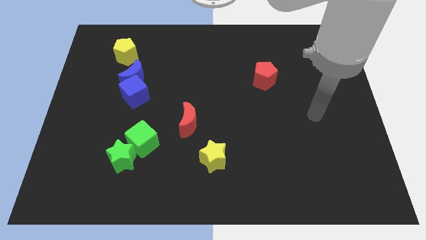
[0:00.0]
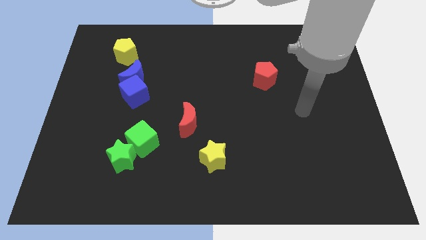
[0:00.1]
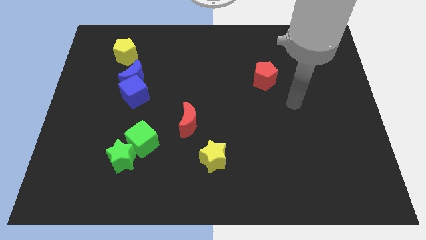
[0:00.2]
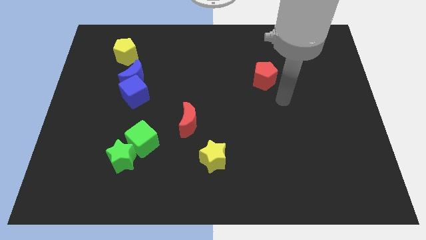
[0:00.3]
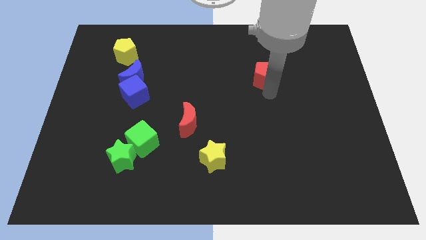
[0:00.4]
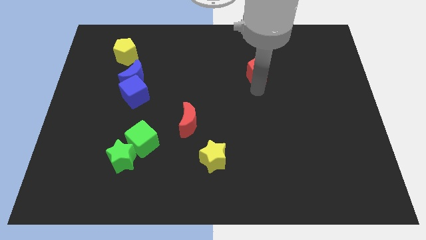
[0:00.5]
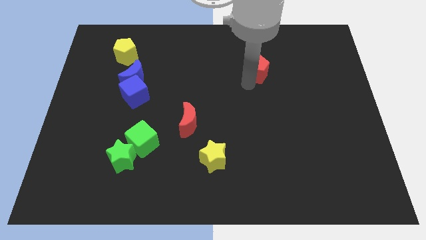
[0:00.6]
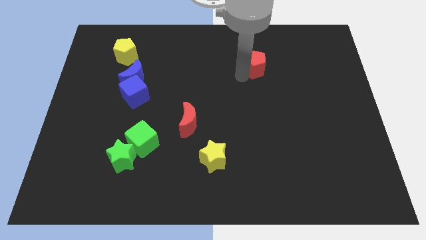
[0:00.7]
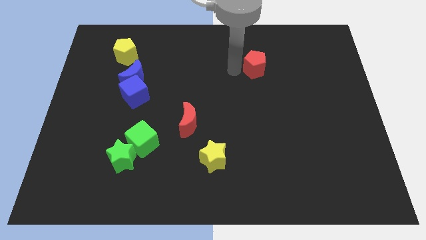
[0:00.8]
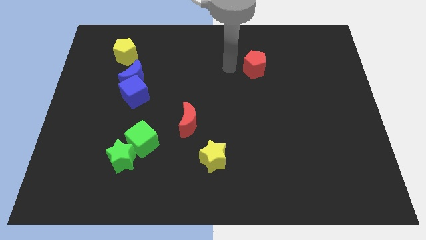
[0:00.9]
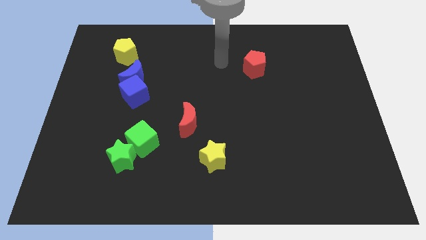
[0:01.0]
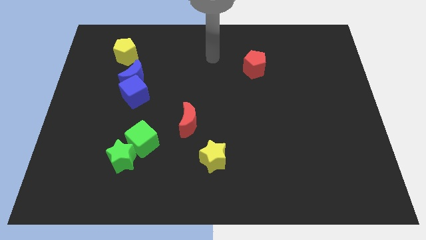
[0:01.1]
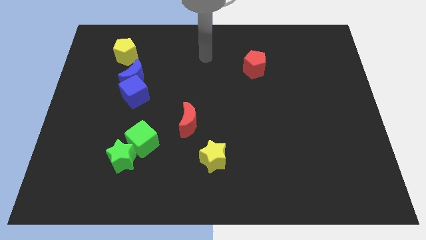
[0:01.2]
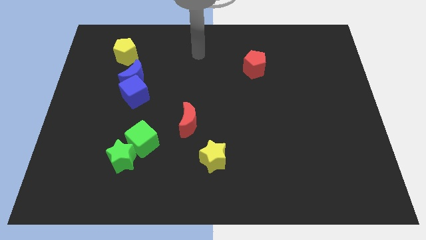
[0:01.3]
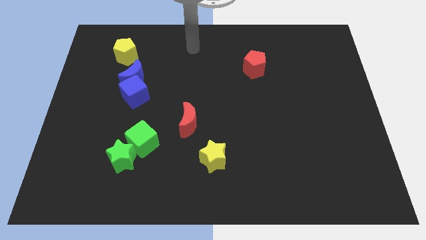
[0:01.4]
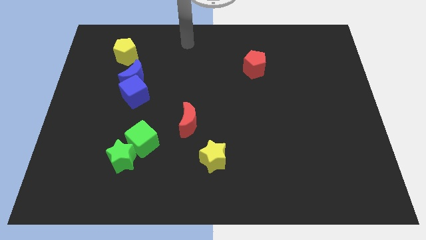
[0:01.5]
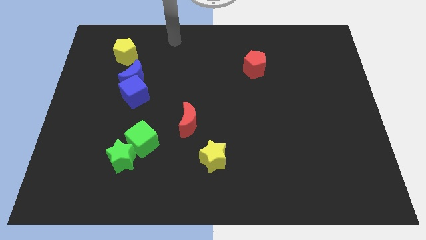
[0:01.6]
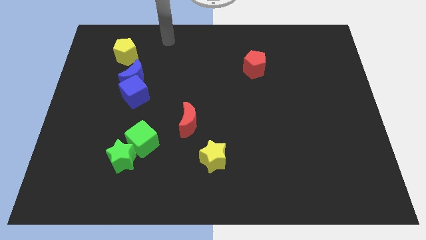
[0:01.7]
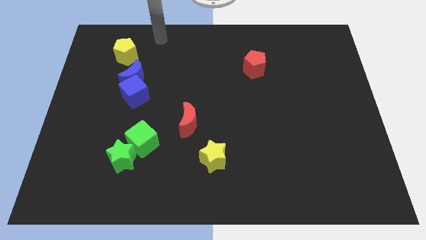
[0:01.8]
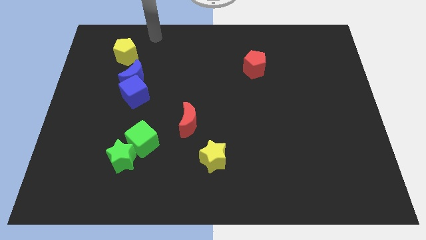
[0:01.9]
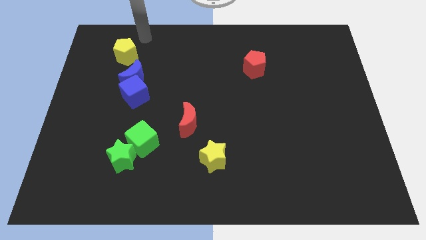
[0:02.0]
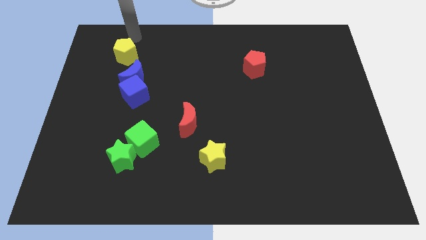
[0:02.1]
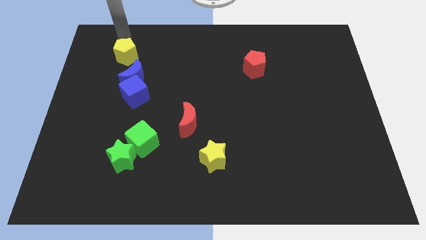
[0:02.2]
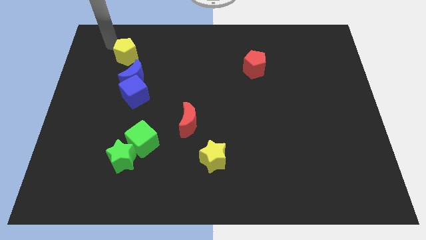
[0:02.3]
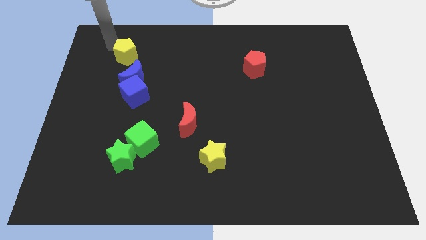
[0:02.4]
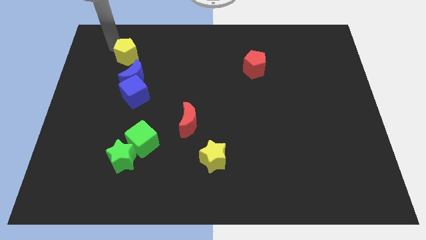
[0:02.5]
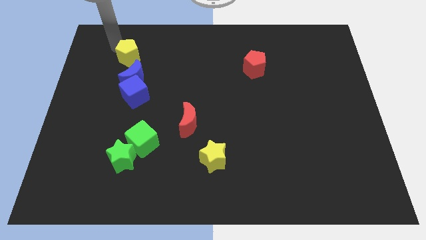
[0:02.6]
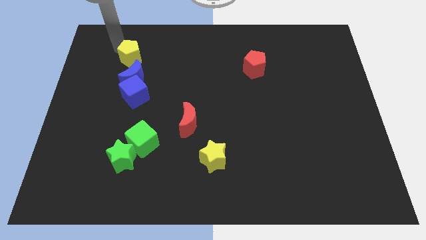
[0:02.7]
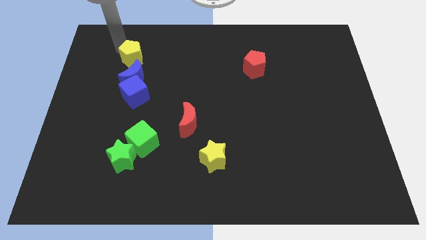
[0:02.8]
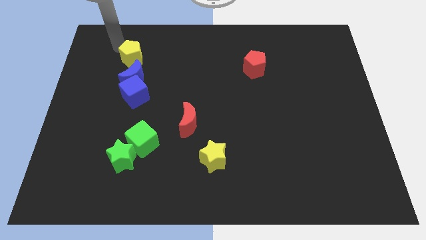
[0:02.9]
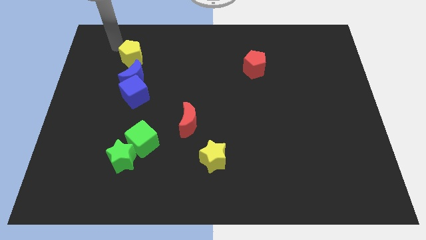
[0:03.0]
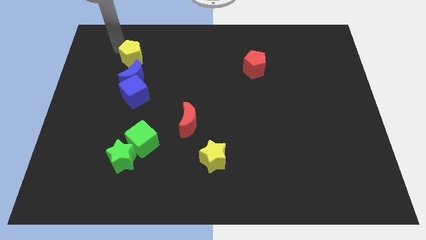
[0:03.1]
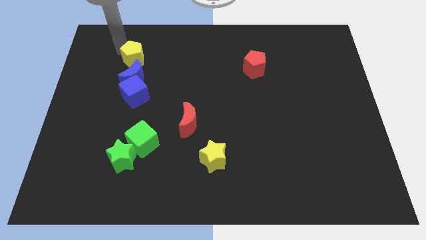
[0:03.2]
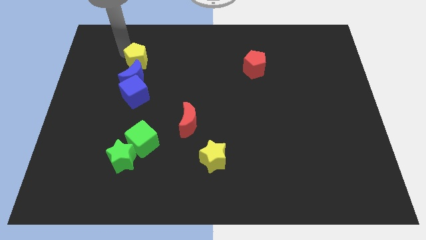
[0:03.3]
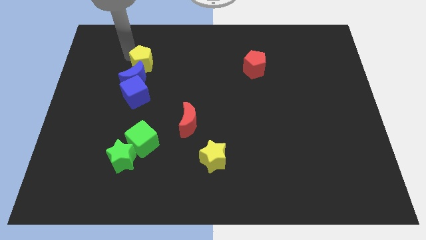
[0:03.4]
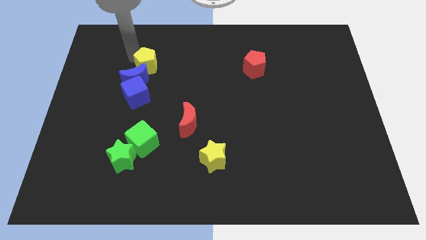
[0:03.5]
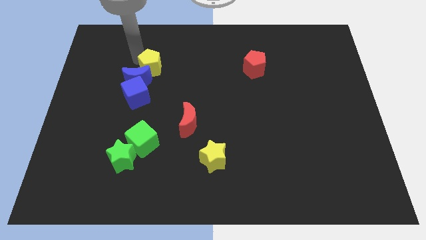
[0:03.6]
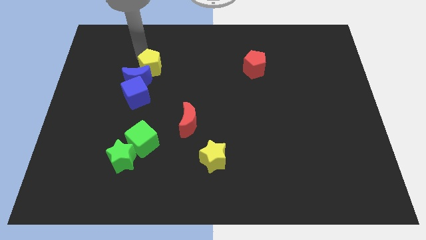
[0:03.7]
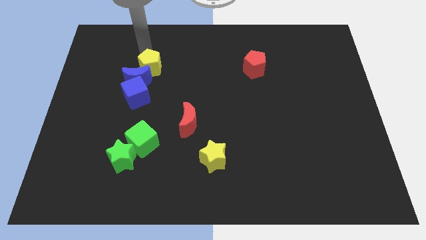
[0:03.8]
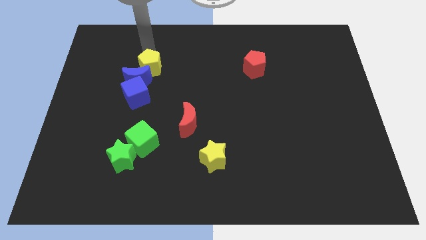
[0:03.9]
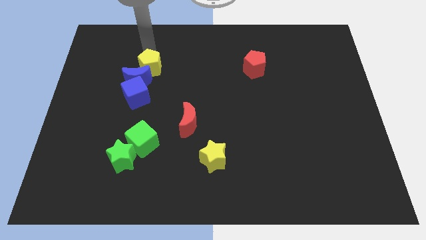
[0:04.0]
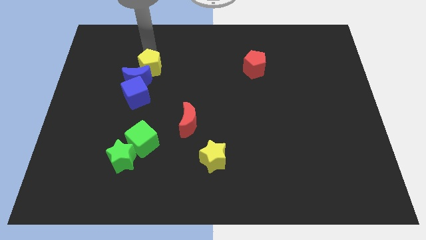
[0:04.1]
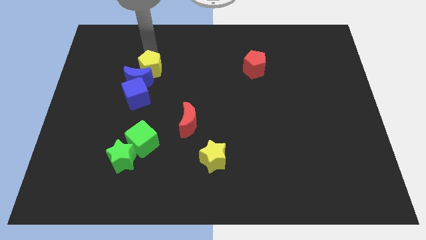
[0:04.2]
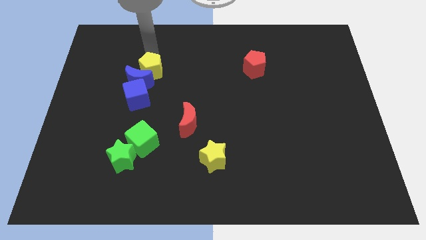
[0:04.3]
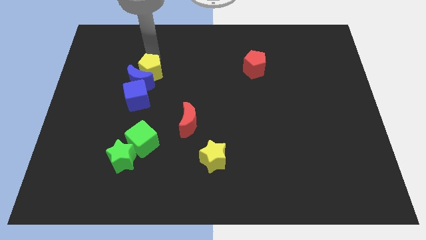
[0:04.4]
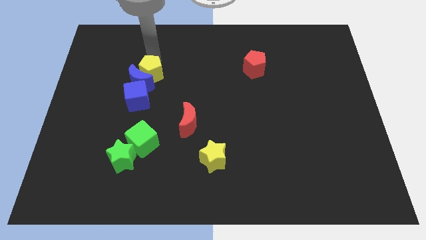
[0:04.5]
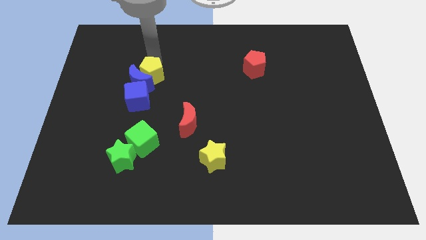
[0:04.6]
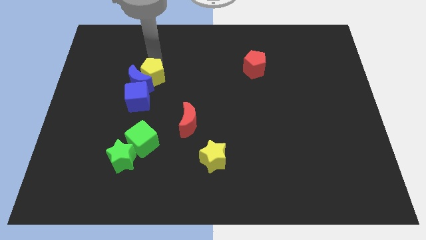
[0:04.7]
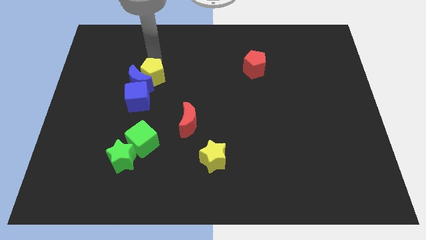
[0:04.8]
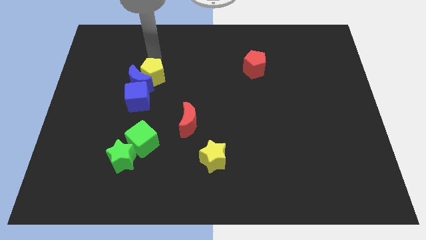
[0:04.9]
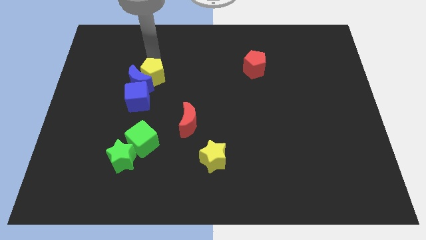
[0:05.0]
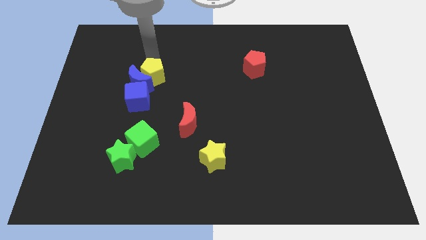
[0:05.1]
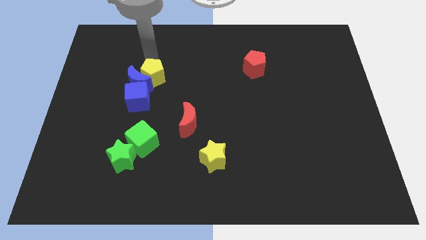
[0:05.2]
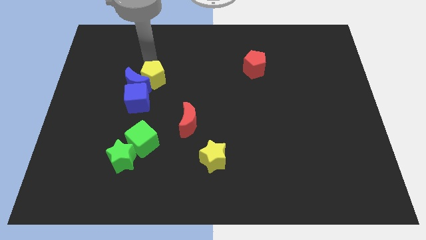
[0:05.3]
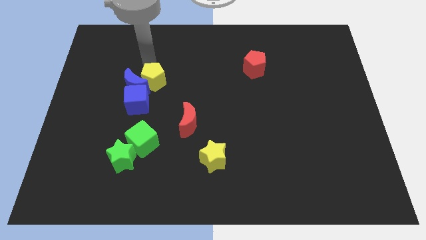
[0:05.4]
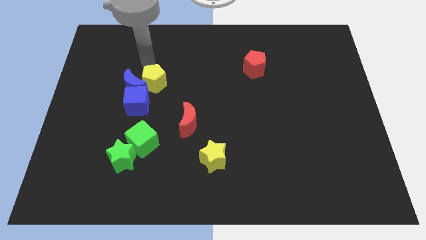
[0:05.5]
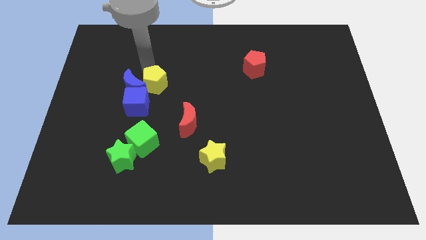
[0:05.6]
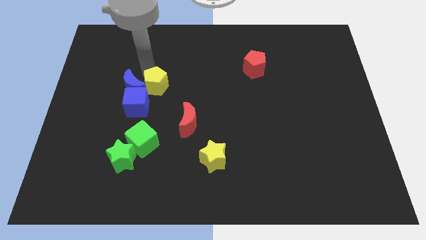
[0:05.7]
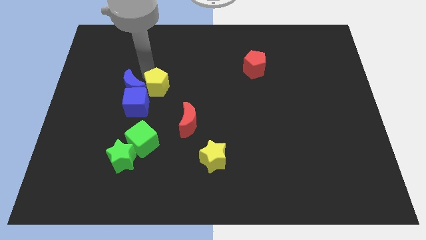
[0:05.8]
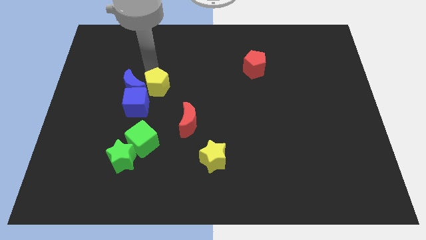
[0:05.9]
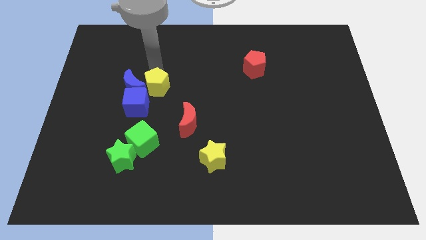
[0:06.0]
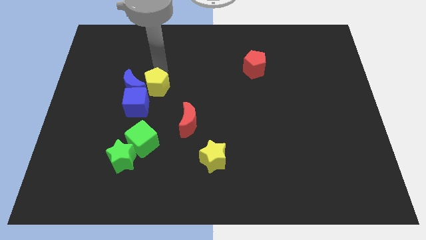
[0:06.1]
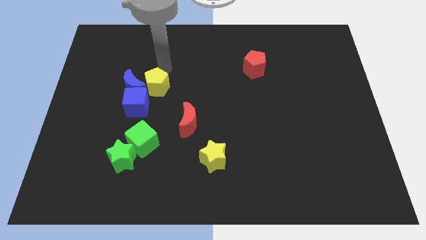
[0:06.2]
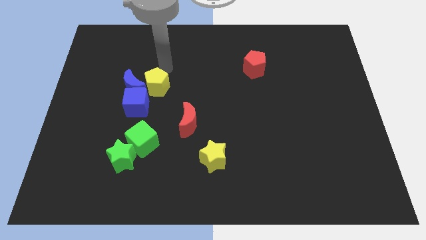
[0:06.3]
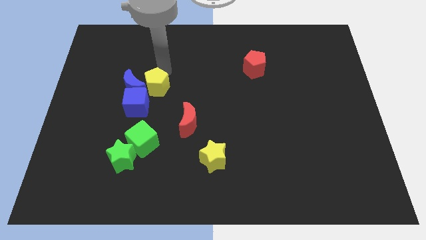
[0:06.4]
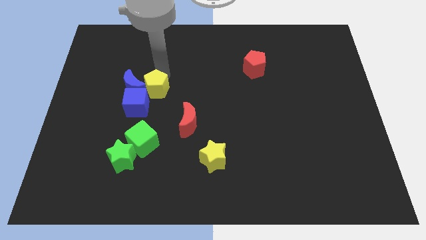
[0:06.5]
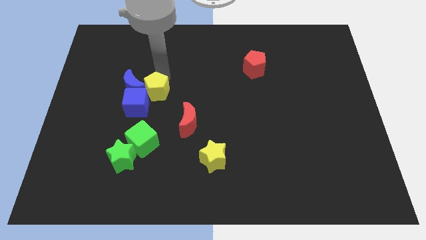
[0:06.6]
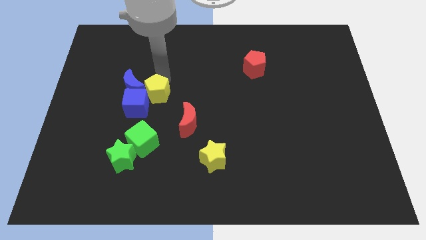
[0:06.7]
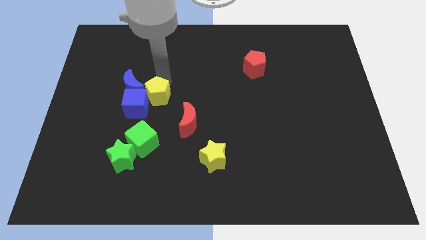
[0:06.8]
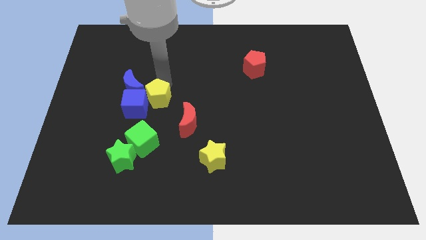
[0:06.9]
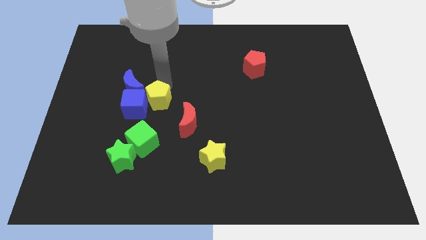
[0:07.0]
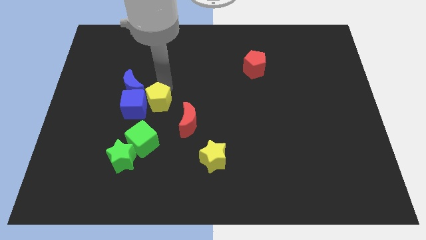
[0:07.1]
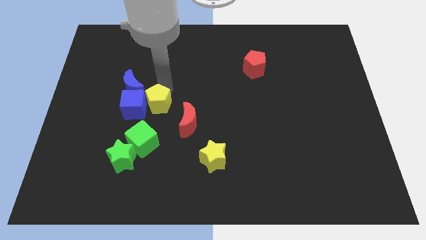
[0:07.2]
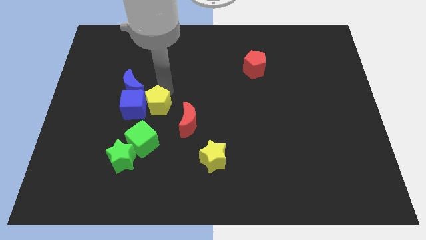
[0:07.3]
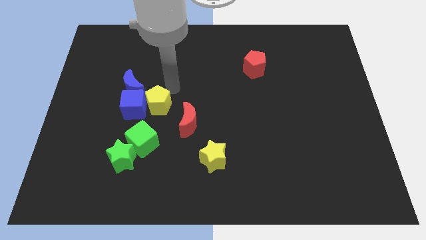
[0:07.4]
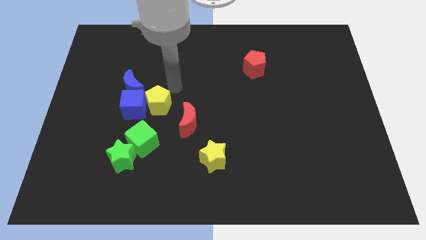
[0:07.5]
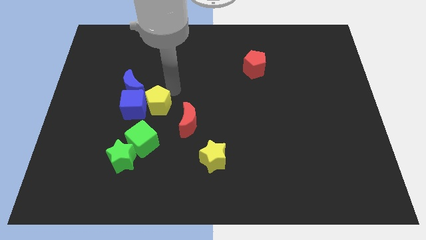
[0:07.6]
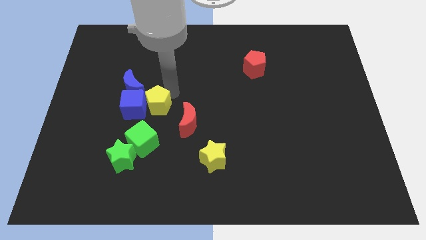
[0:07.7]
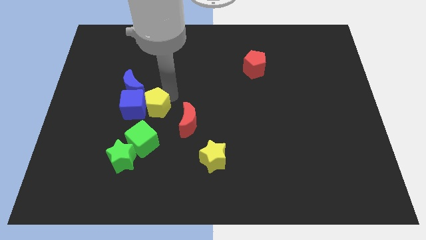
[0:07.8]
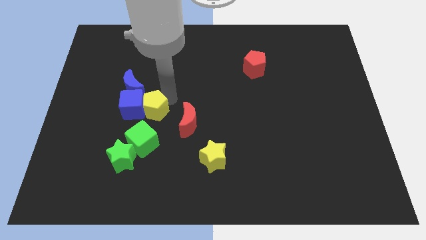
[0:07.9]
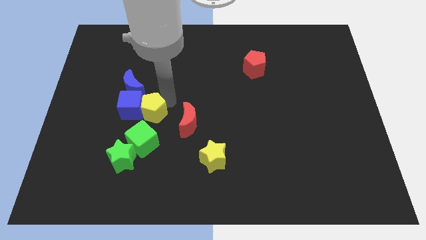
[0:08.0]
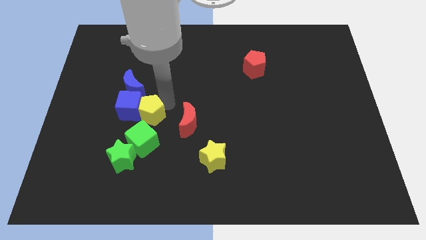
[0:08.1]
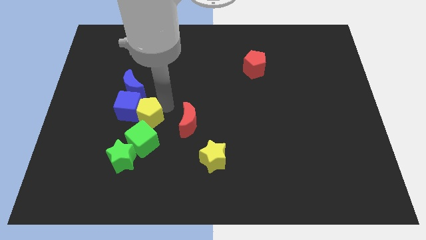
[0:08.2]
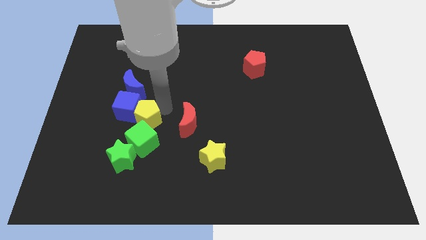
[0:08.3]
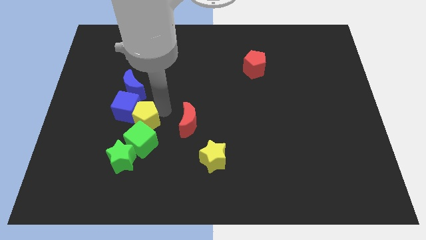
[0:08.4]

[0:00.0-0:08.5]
push the yellow pentagon to the green cube
